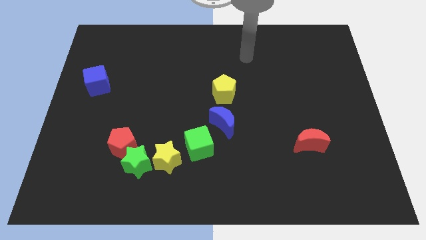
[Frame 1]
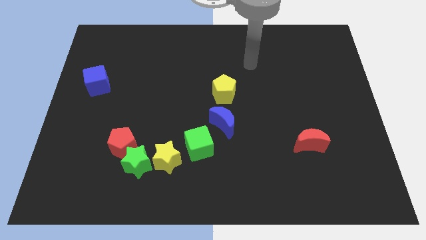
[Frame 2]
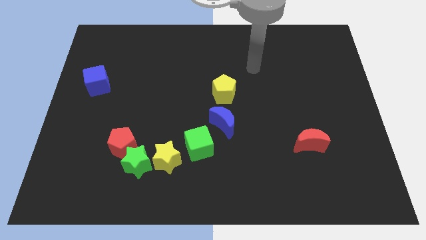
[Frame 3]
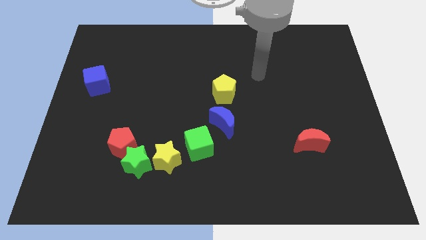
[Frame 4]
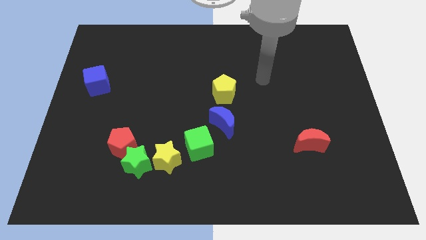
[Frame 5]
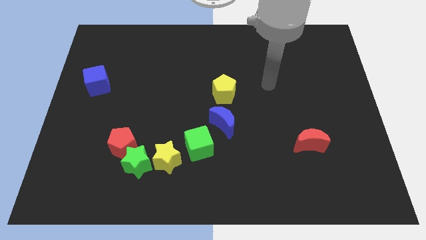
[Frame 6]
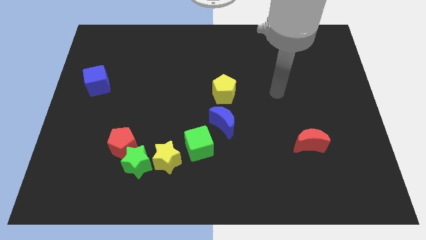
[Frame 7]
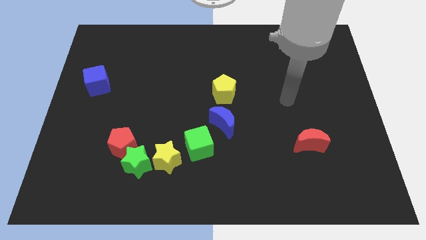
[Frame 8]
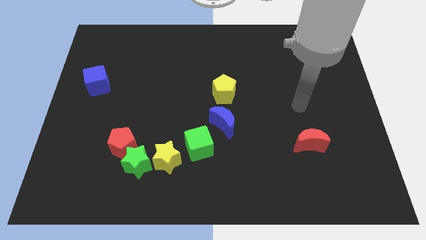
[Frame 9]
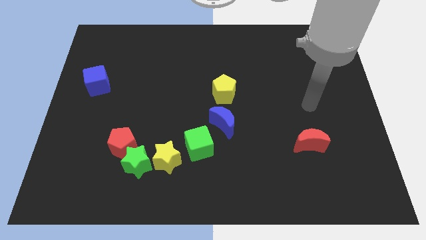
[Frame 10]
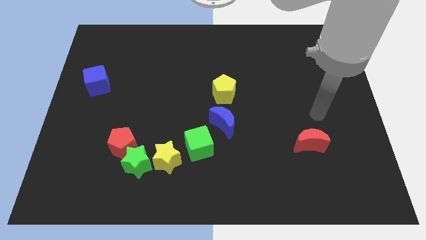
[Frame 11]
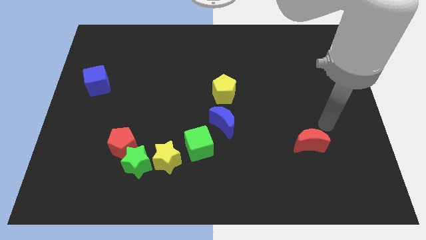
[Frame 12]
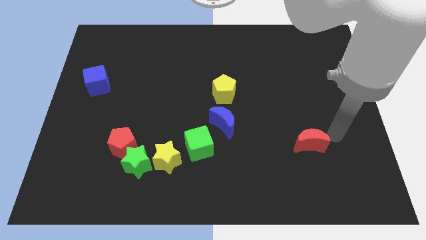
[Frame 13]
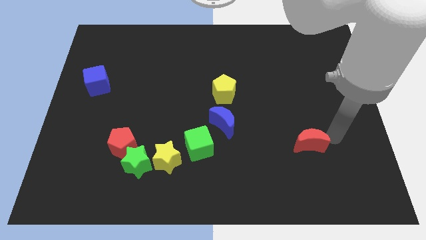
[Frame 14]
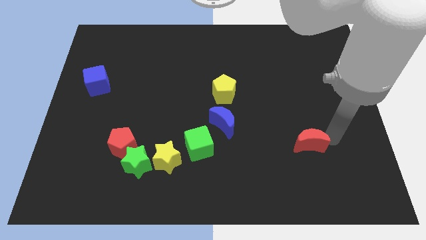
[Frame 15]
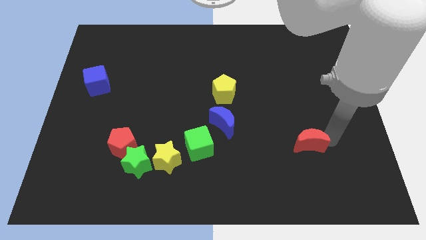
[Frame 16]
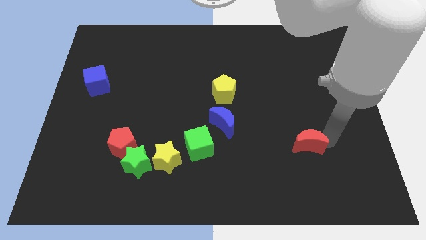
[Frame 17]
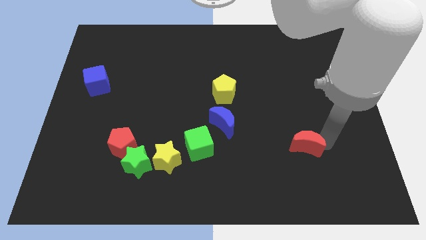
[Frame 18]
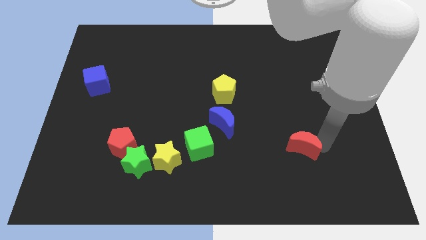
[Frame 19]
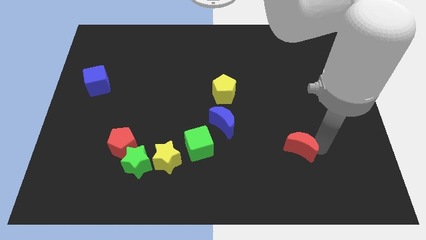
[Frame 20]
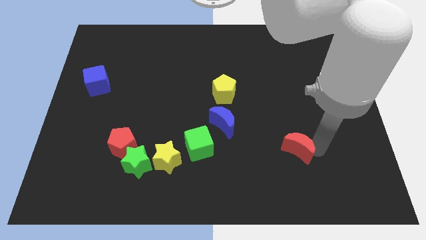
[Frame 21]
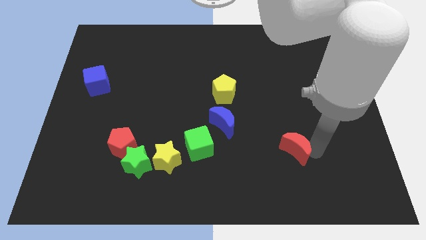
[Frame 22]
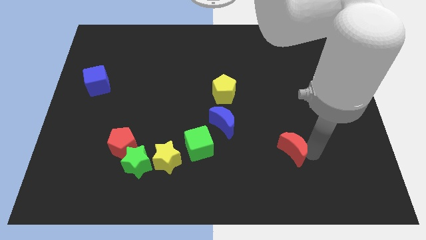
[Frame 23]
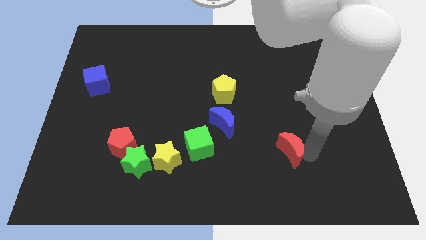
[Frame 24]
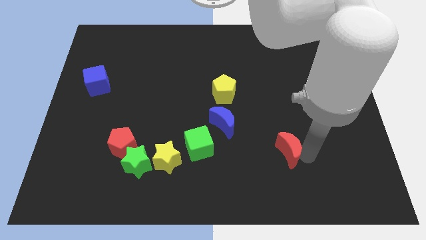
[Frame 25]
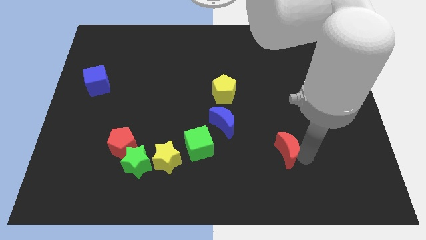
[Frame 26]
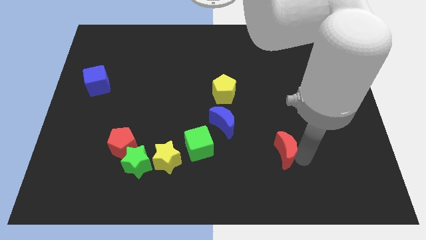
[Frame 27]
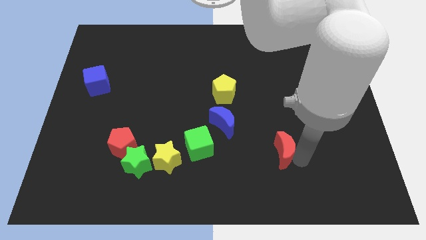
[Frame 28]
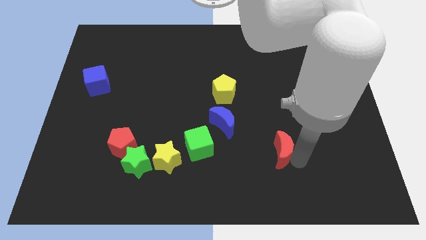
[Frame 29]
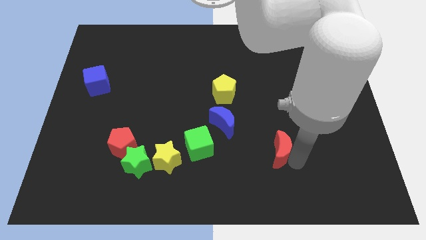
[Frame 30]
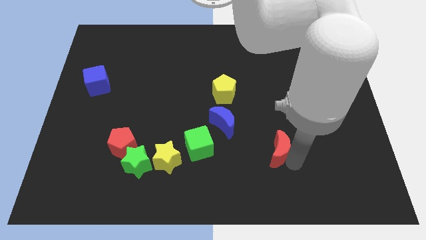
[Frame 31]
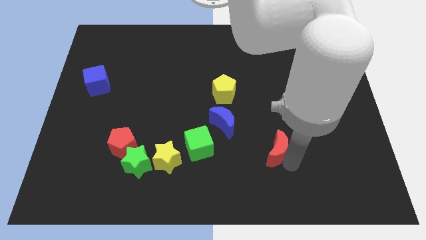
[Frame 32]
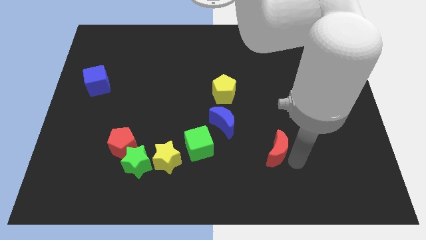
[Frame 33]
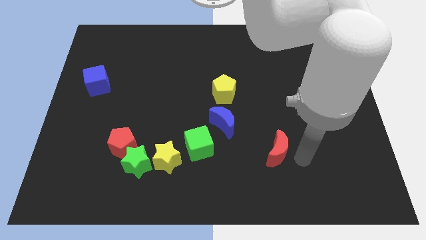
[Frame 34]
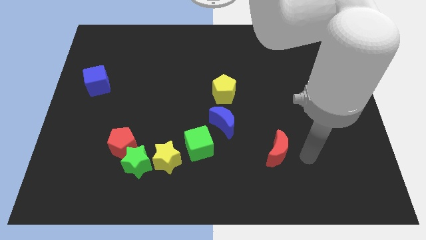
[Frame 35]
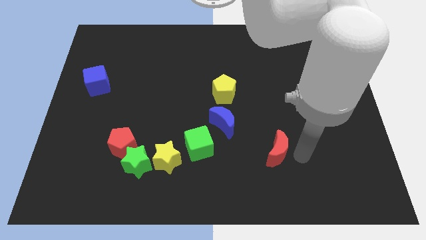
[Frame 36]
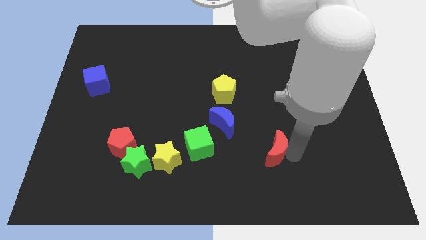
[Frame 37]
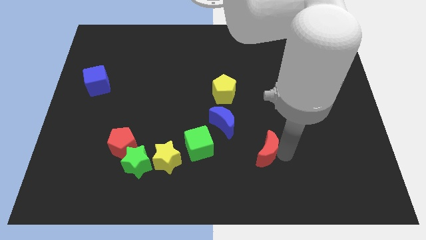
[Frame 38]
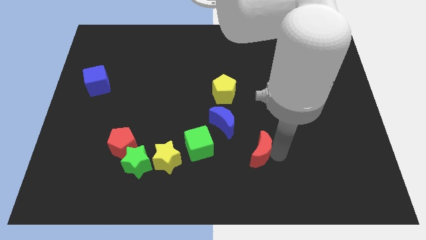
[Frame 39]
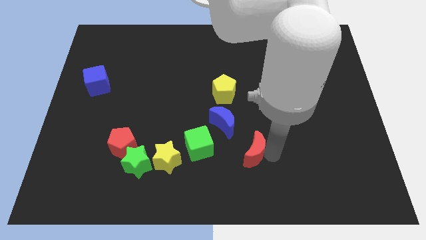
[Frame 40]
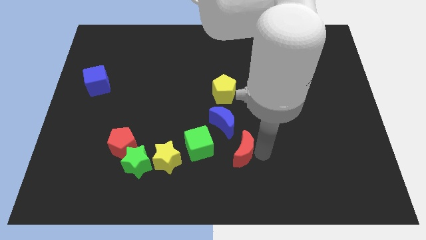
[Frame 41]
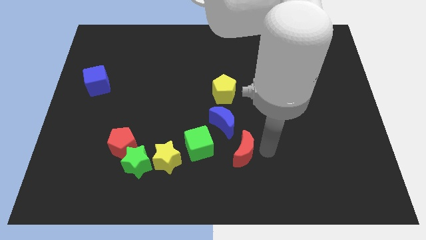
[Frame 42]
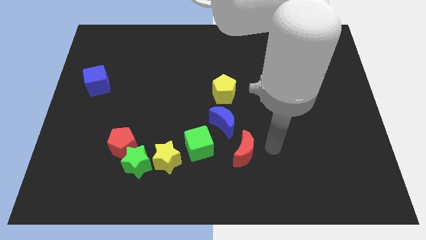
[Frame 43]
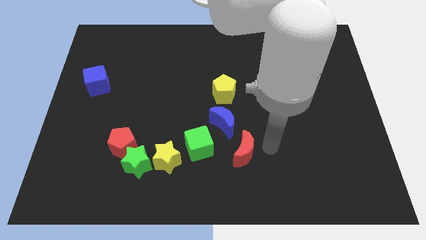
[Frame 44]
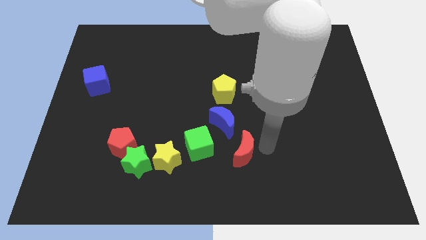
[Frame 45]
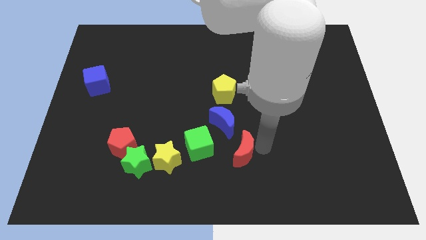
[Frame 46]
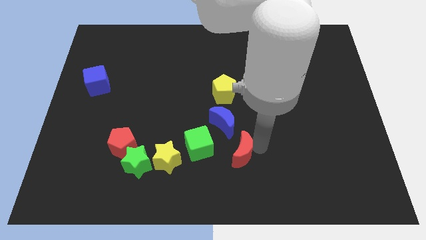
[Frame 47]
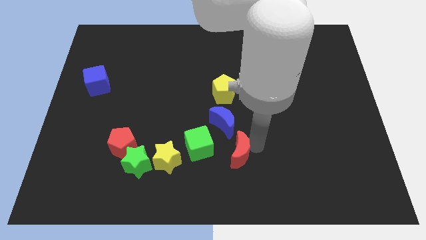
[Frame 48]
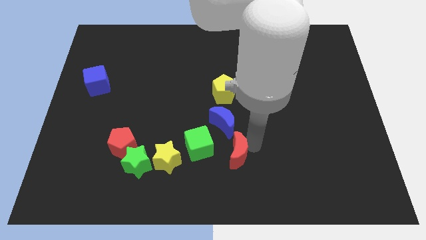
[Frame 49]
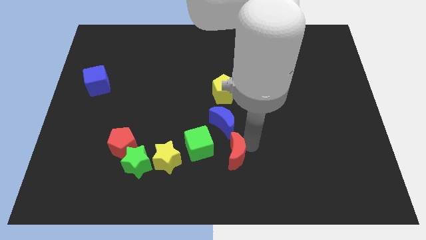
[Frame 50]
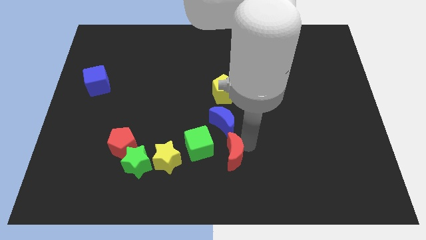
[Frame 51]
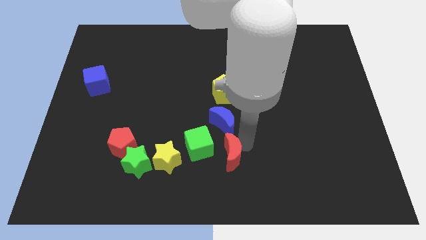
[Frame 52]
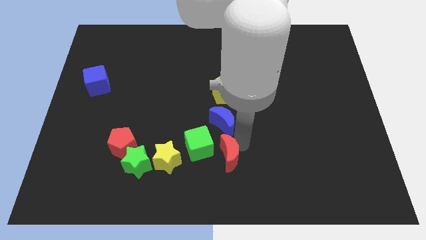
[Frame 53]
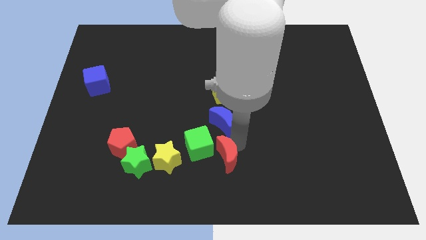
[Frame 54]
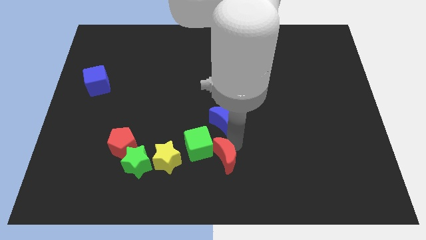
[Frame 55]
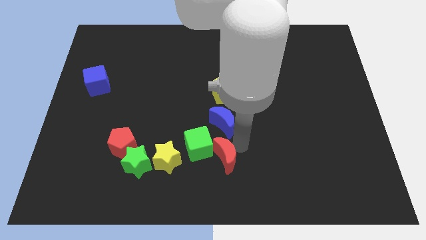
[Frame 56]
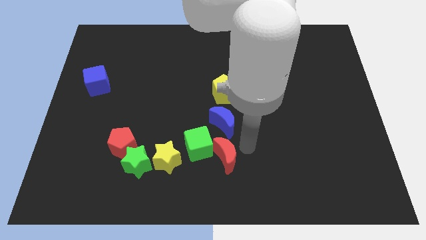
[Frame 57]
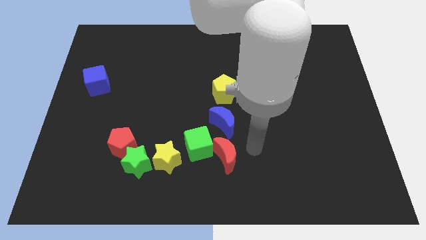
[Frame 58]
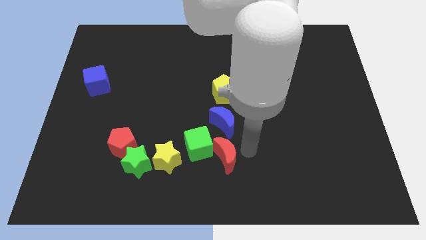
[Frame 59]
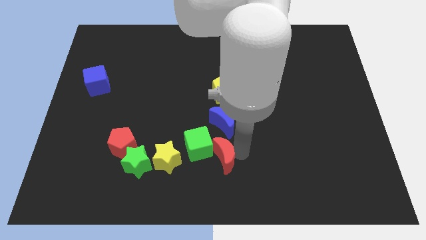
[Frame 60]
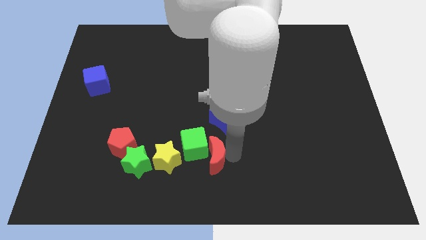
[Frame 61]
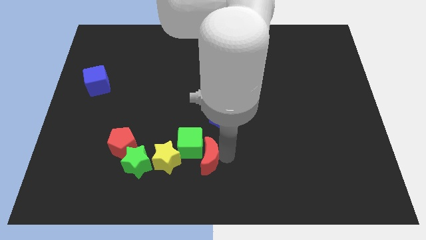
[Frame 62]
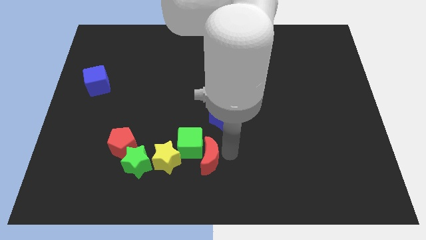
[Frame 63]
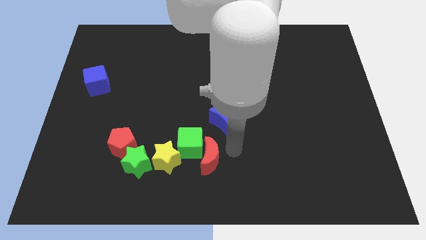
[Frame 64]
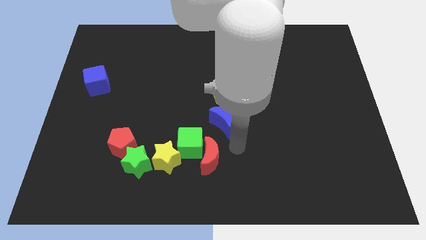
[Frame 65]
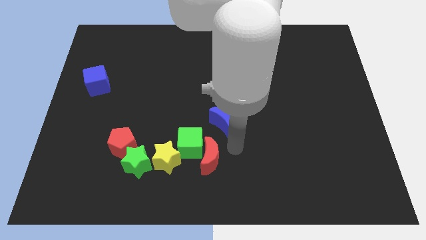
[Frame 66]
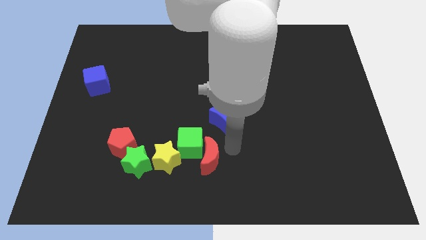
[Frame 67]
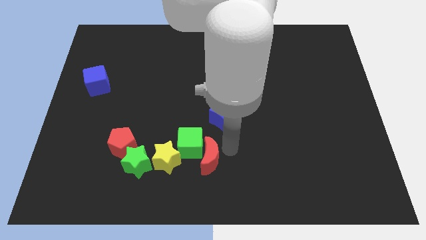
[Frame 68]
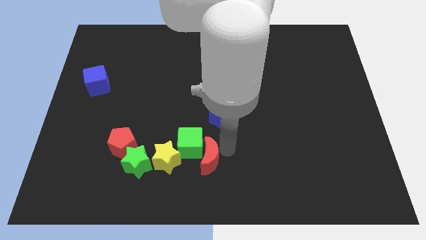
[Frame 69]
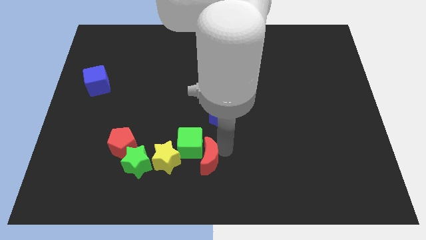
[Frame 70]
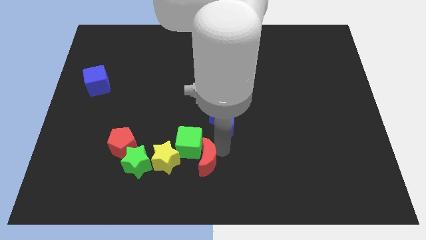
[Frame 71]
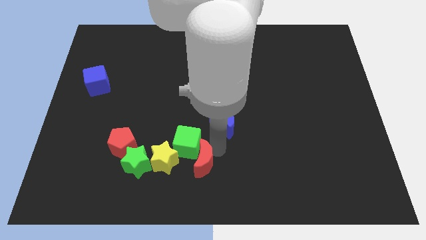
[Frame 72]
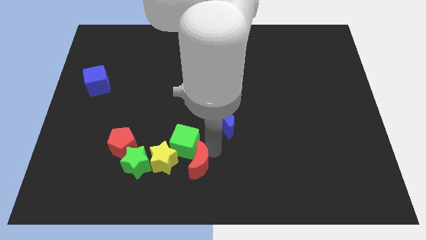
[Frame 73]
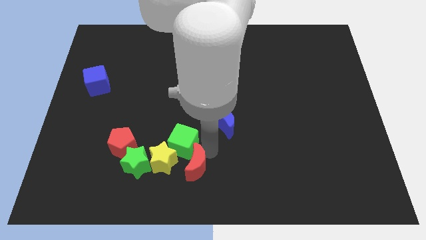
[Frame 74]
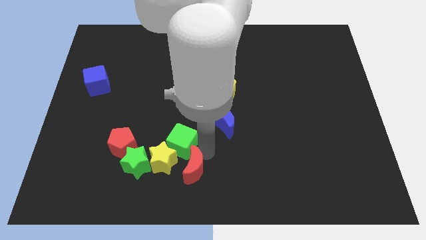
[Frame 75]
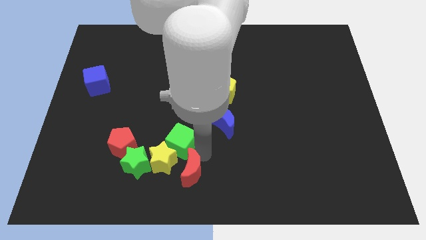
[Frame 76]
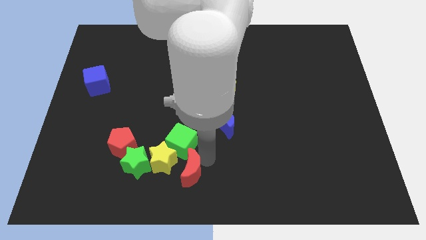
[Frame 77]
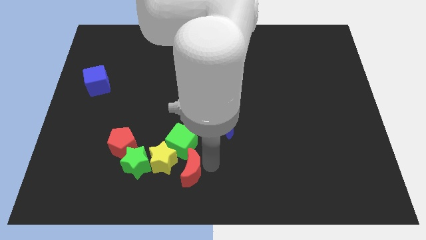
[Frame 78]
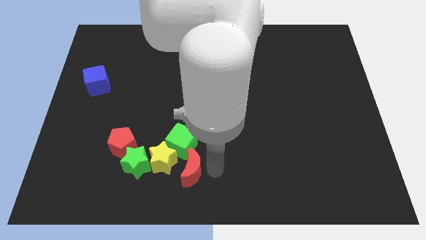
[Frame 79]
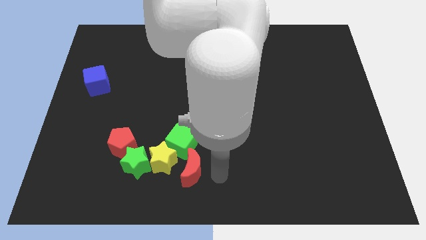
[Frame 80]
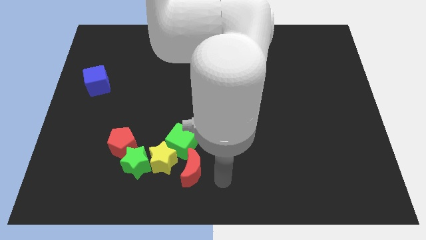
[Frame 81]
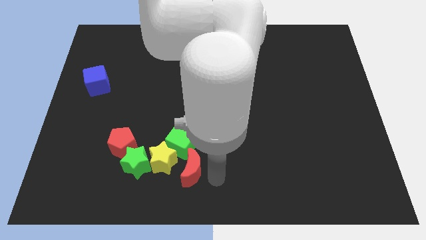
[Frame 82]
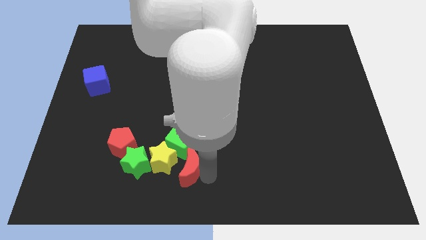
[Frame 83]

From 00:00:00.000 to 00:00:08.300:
put the red moon close to the yellow star
